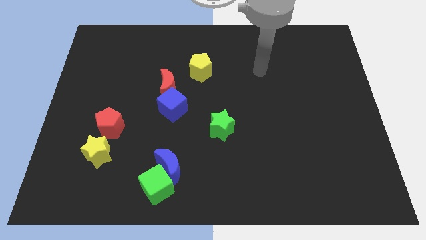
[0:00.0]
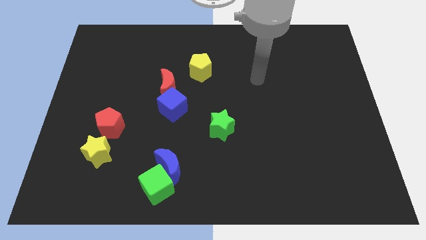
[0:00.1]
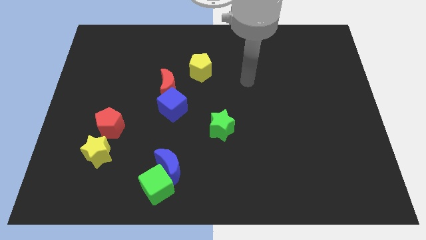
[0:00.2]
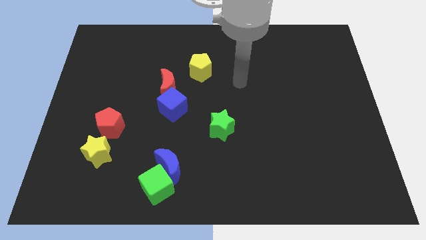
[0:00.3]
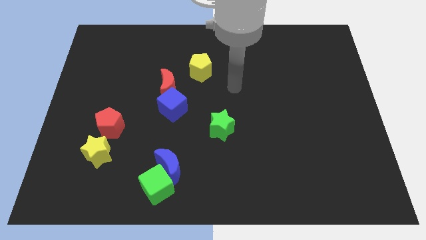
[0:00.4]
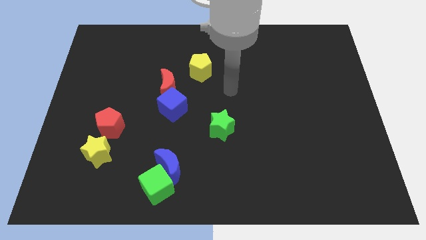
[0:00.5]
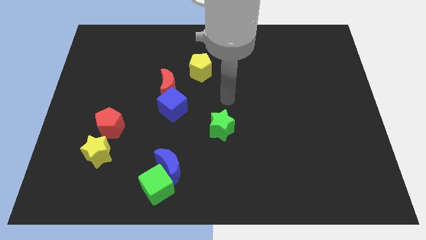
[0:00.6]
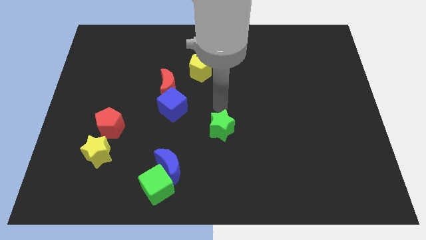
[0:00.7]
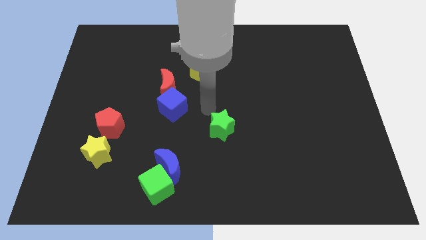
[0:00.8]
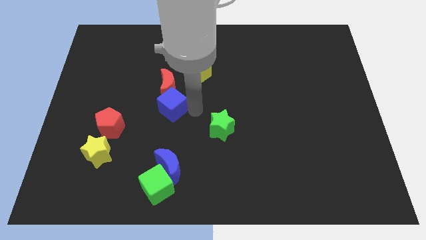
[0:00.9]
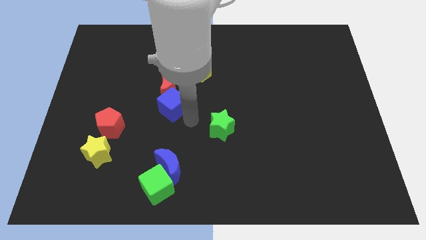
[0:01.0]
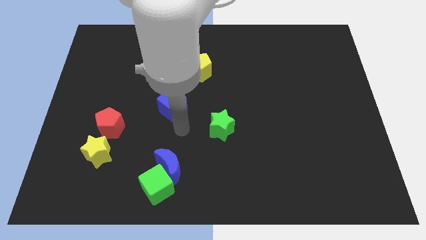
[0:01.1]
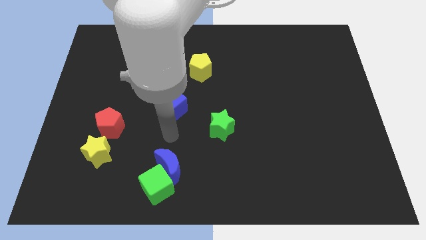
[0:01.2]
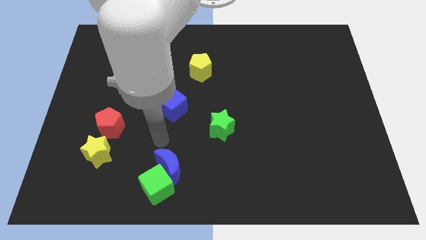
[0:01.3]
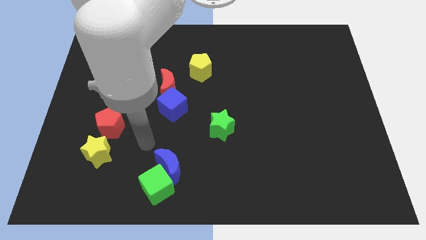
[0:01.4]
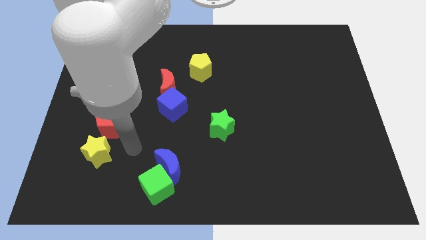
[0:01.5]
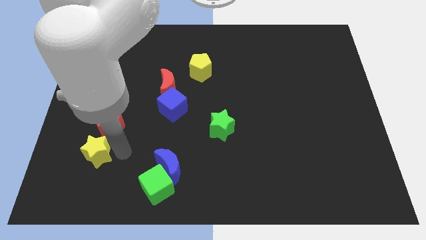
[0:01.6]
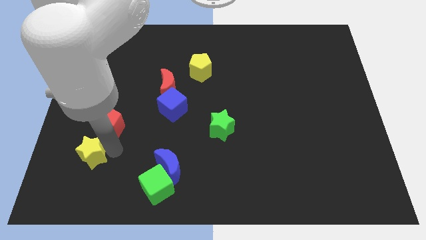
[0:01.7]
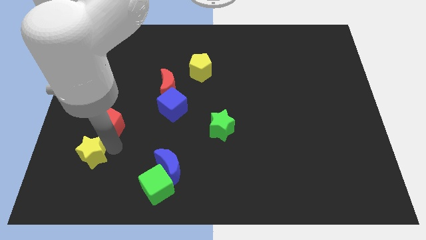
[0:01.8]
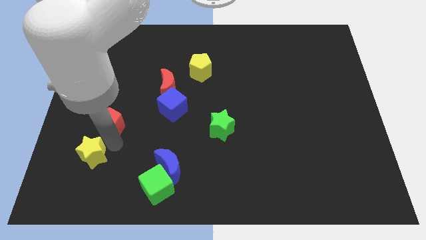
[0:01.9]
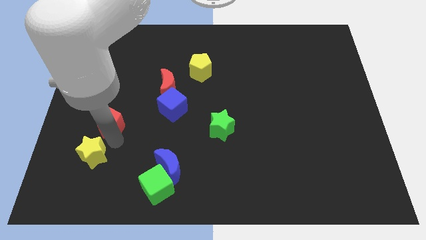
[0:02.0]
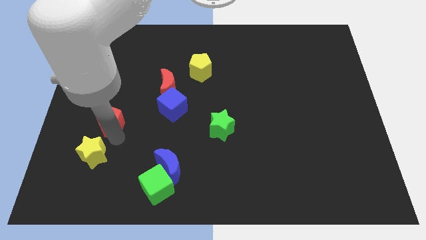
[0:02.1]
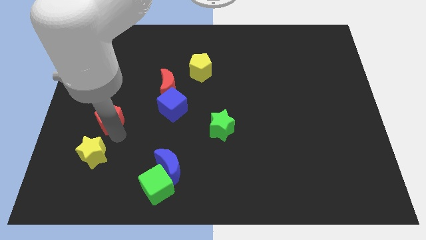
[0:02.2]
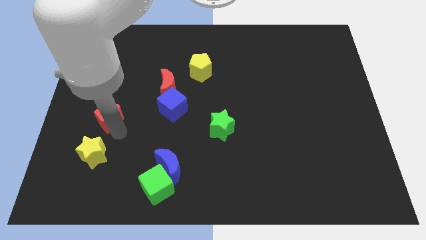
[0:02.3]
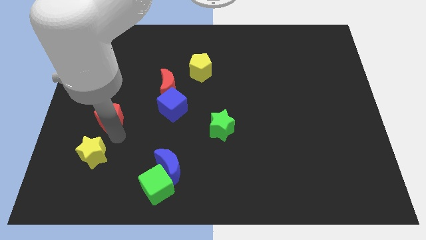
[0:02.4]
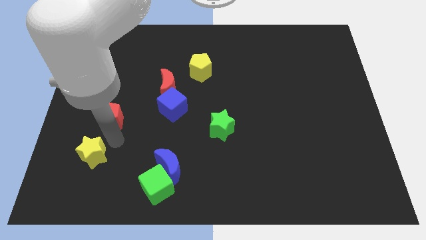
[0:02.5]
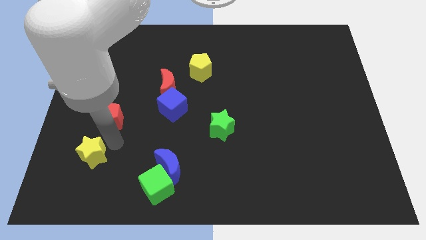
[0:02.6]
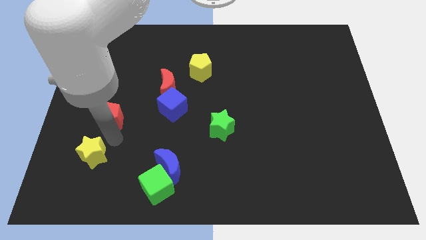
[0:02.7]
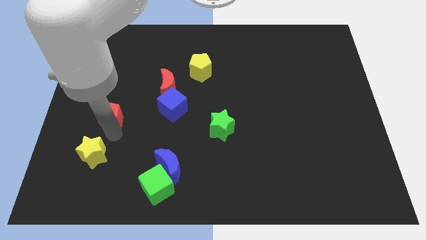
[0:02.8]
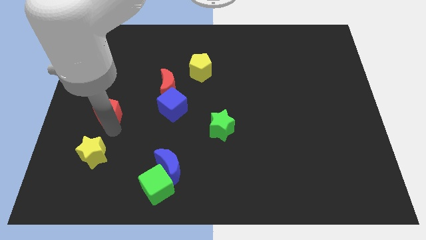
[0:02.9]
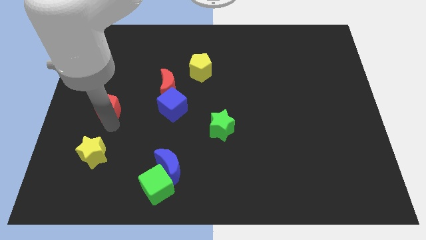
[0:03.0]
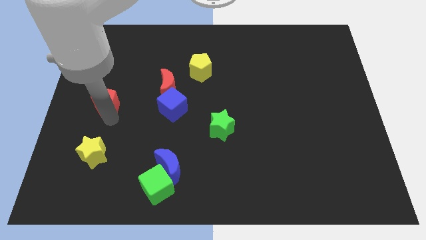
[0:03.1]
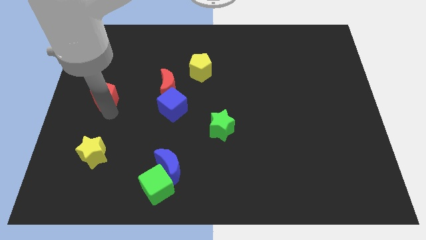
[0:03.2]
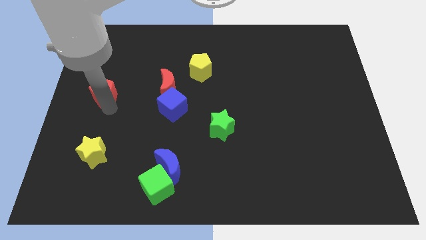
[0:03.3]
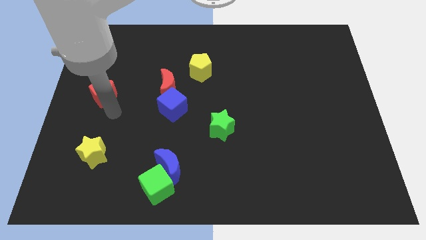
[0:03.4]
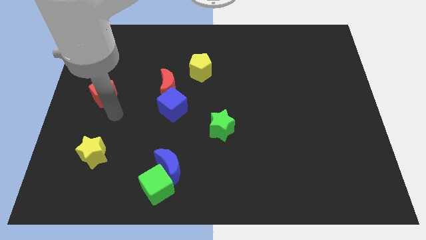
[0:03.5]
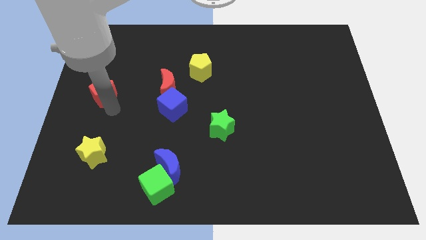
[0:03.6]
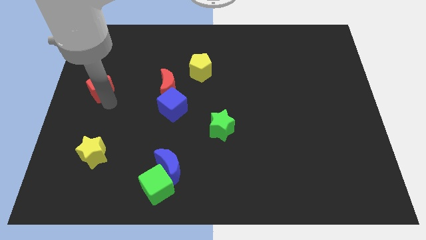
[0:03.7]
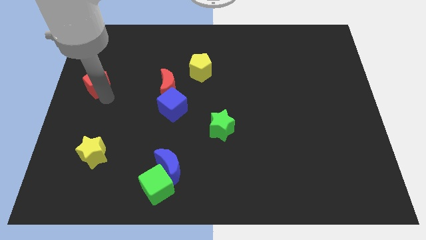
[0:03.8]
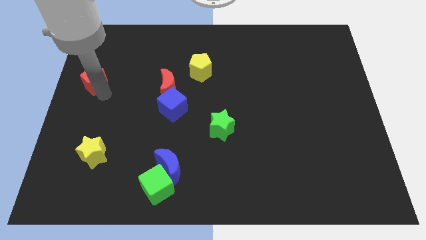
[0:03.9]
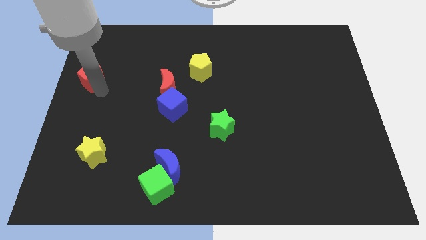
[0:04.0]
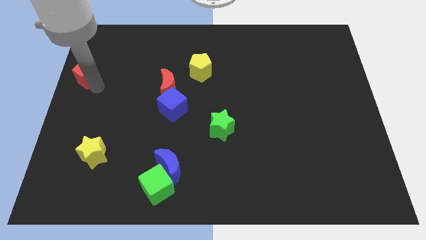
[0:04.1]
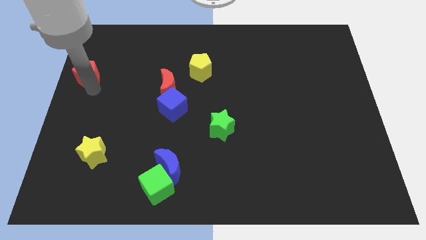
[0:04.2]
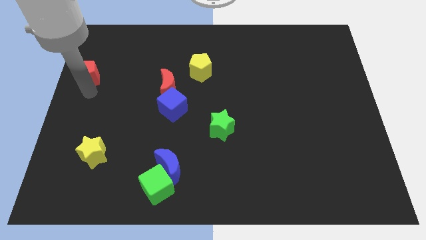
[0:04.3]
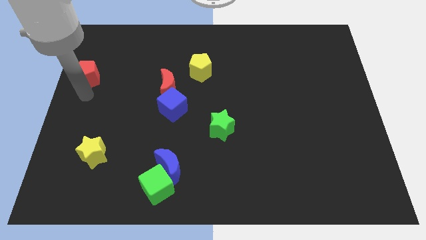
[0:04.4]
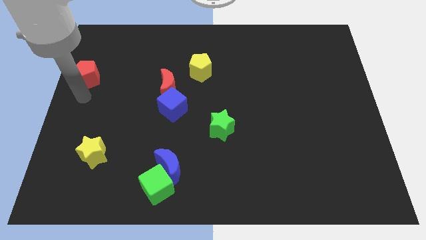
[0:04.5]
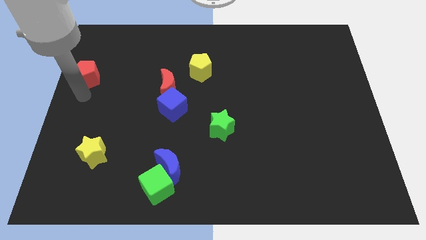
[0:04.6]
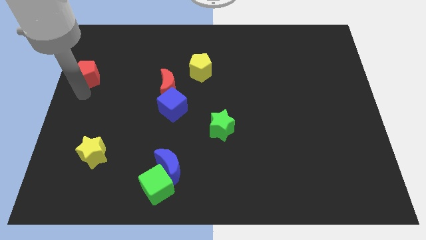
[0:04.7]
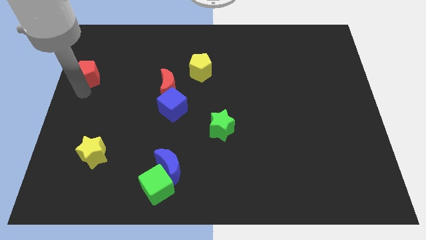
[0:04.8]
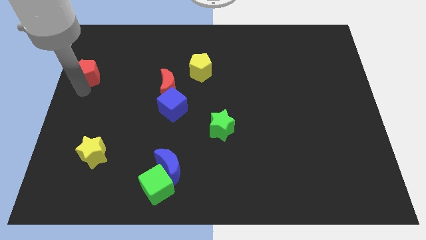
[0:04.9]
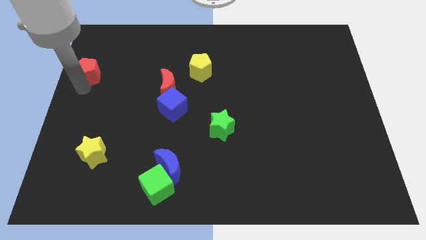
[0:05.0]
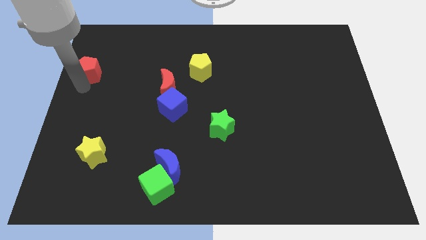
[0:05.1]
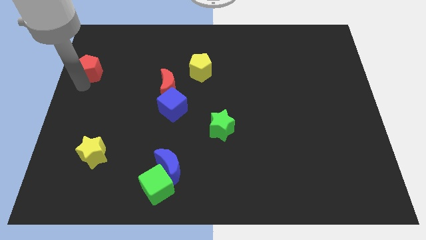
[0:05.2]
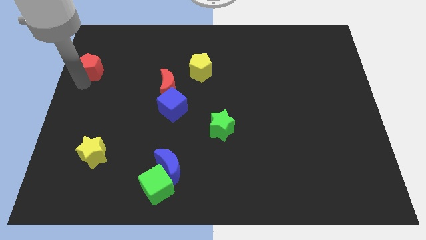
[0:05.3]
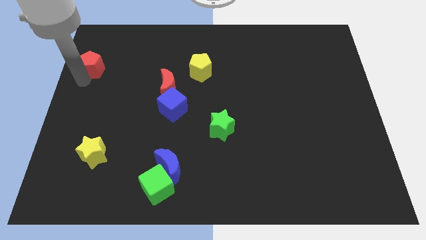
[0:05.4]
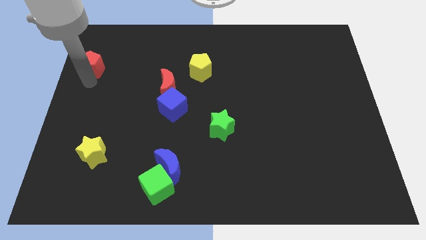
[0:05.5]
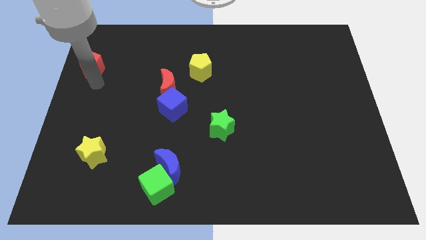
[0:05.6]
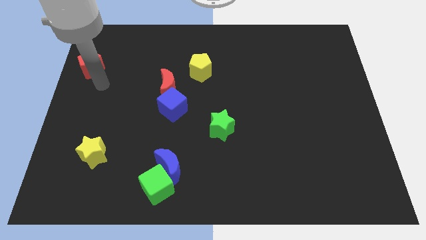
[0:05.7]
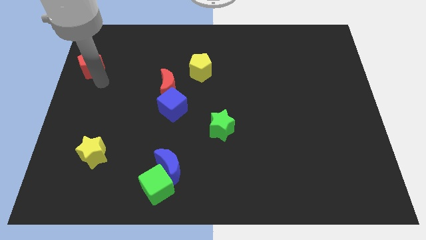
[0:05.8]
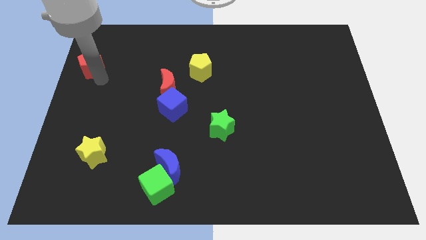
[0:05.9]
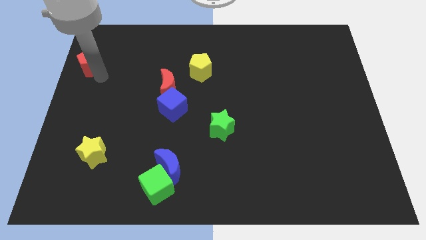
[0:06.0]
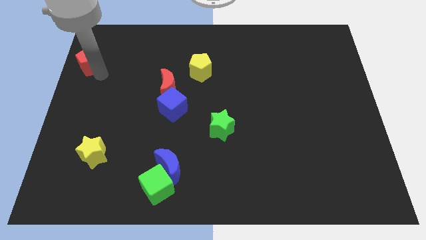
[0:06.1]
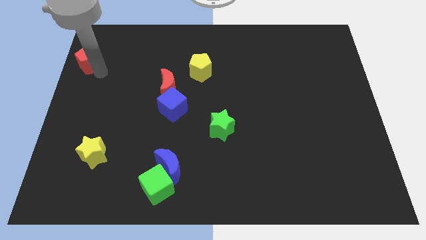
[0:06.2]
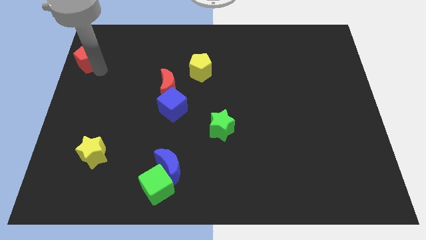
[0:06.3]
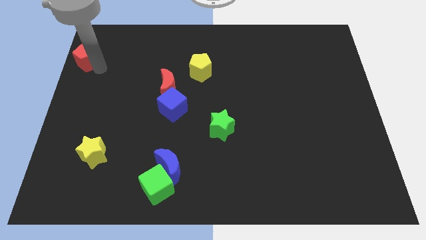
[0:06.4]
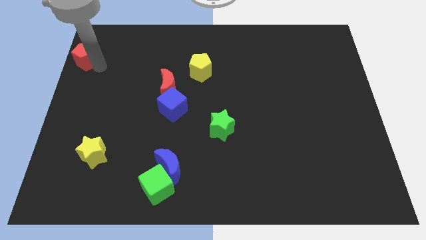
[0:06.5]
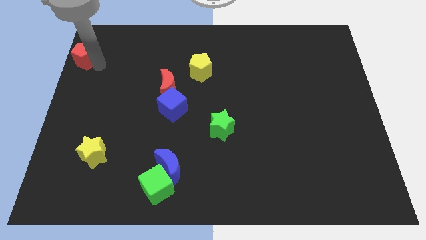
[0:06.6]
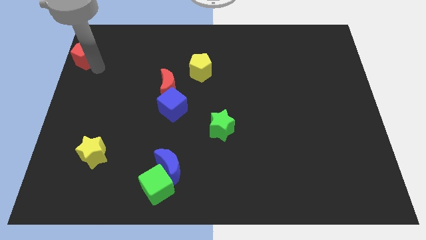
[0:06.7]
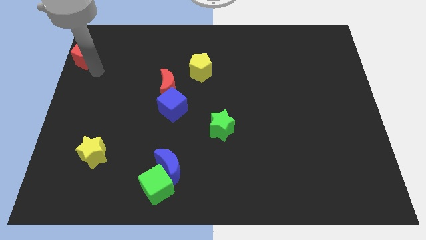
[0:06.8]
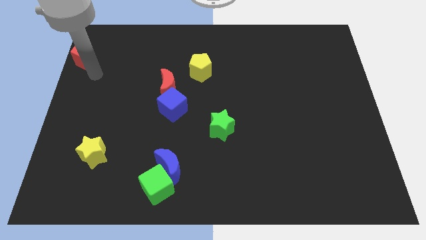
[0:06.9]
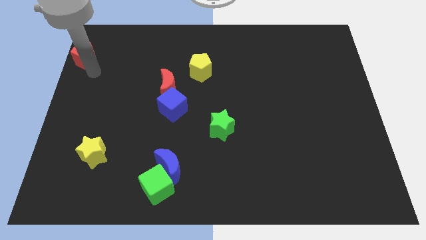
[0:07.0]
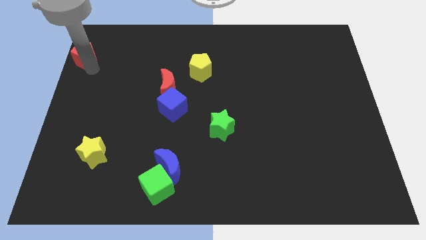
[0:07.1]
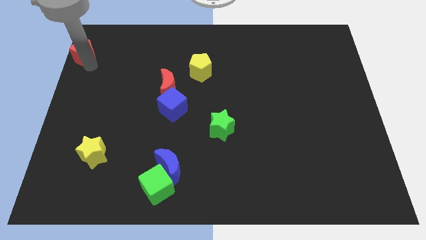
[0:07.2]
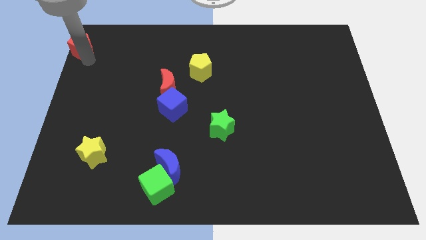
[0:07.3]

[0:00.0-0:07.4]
move the red pentagon to the top left of the board
